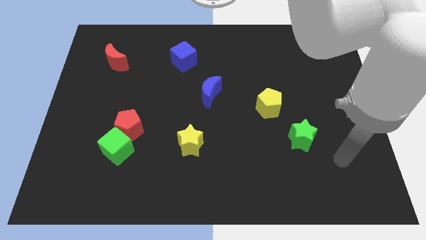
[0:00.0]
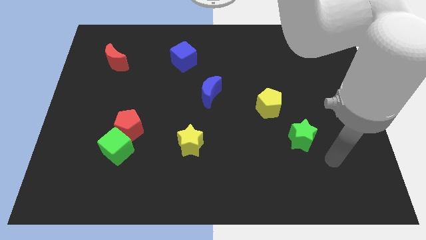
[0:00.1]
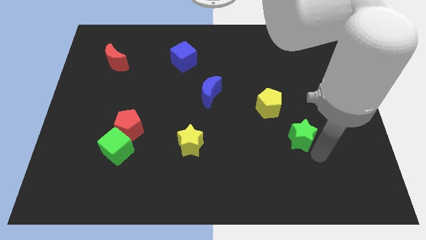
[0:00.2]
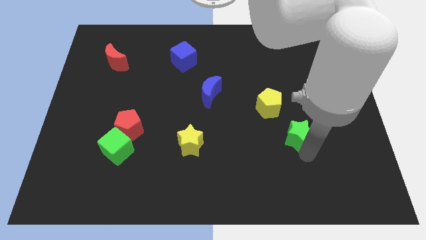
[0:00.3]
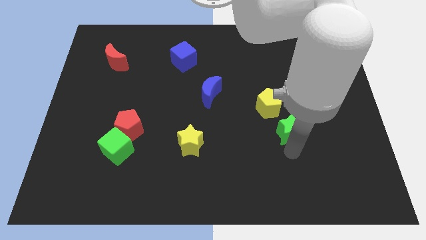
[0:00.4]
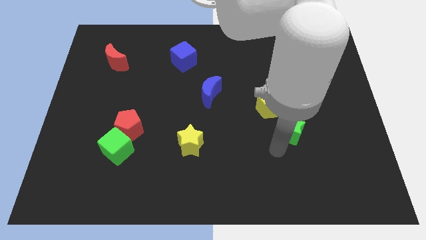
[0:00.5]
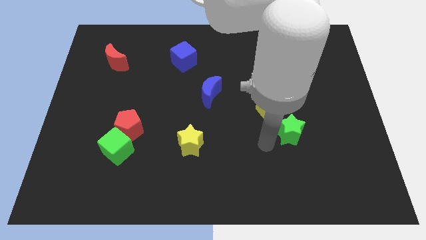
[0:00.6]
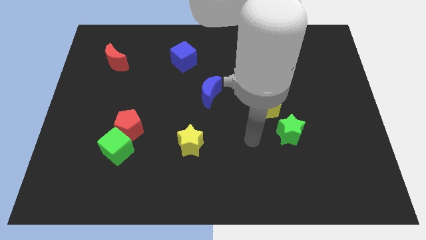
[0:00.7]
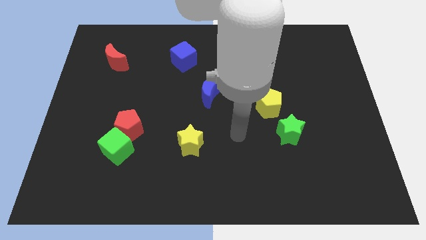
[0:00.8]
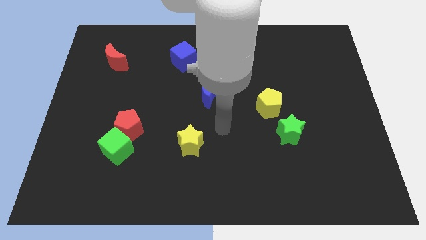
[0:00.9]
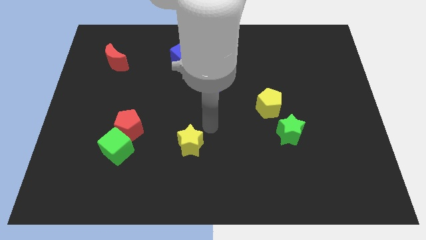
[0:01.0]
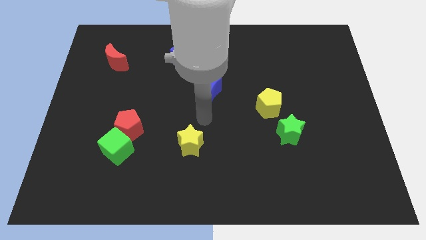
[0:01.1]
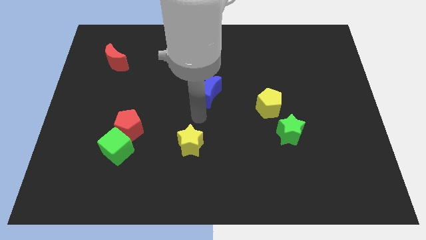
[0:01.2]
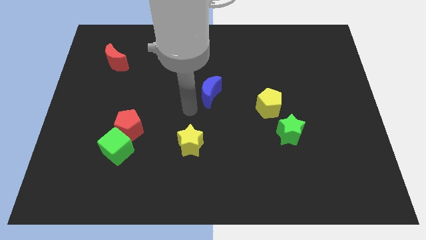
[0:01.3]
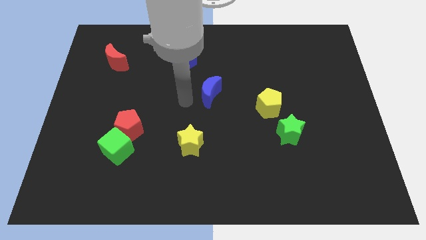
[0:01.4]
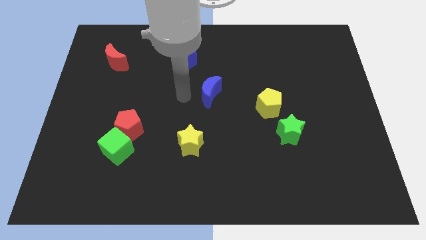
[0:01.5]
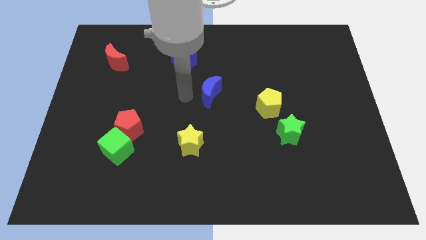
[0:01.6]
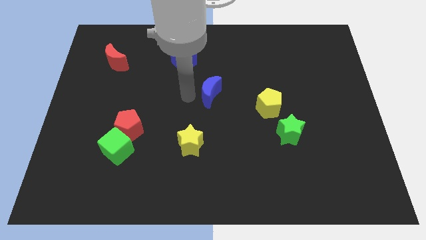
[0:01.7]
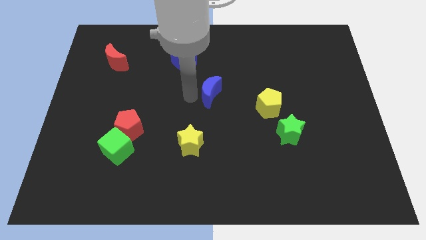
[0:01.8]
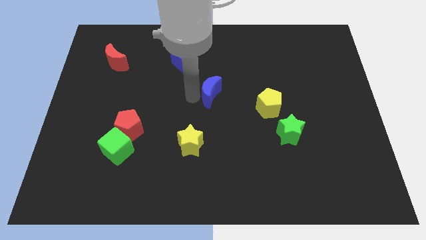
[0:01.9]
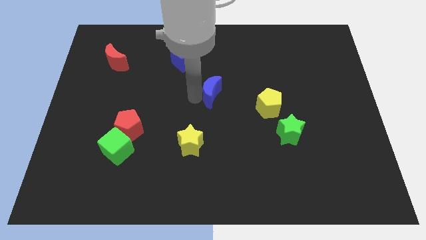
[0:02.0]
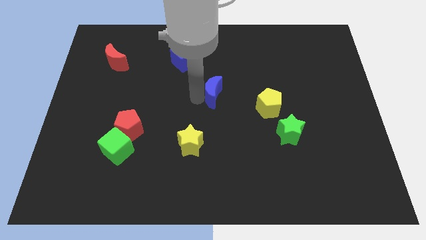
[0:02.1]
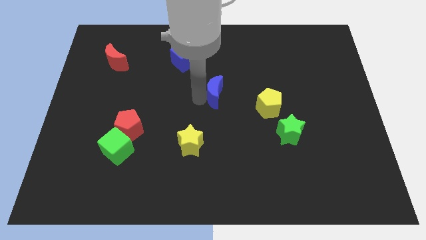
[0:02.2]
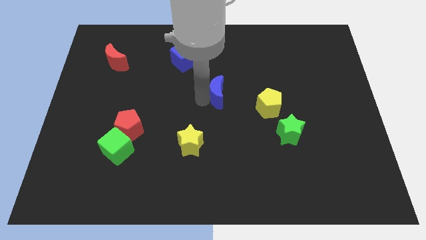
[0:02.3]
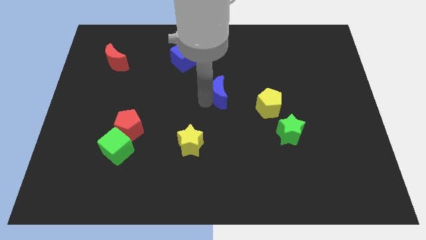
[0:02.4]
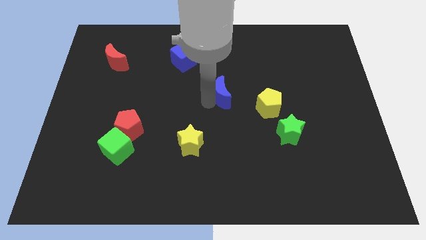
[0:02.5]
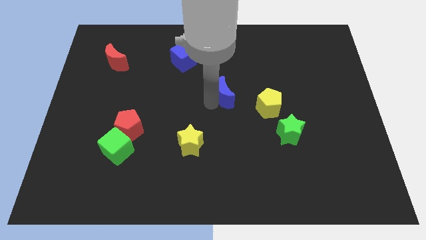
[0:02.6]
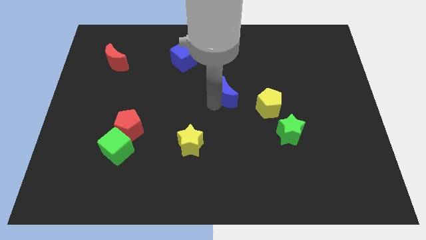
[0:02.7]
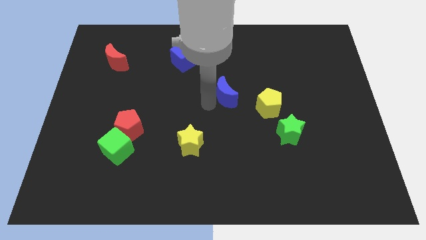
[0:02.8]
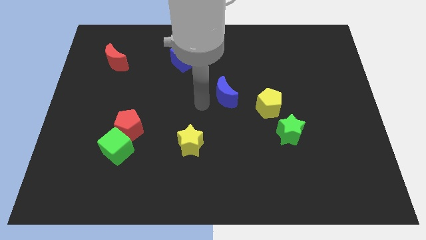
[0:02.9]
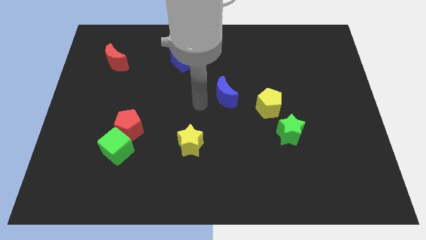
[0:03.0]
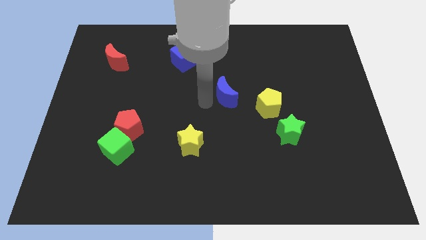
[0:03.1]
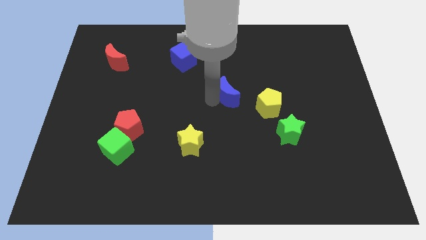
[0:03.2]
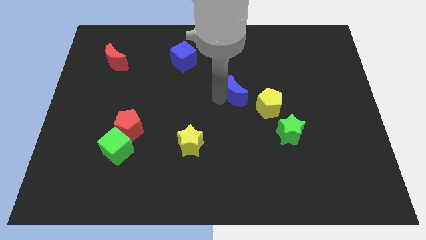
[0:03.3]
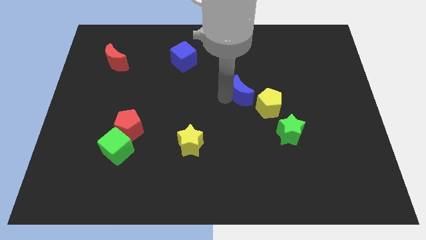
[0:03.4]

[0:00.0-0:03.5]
slightly move the blue moon to the right

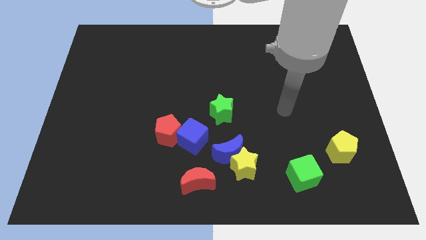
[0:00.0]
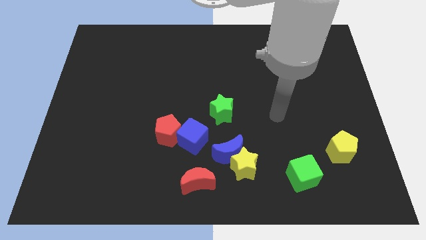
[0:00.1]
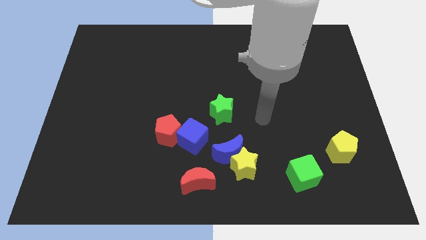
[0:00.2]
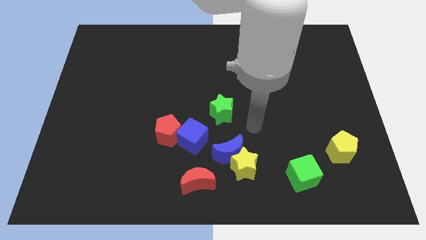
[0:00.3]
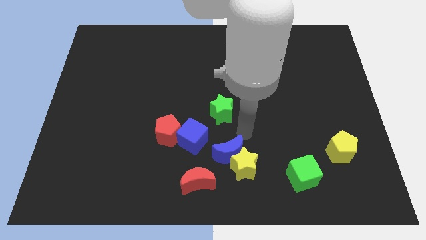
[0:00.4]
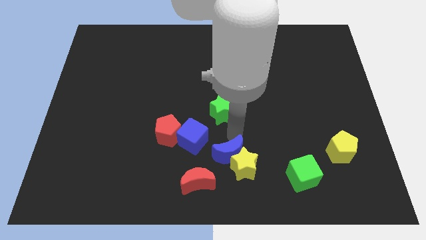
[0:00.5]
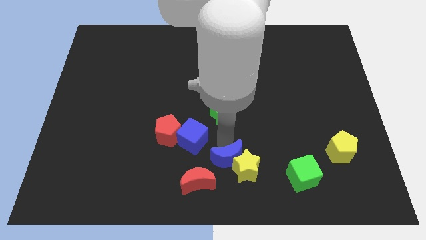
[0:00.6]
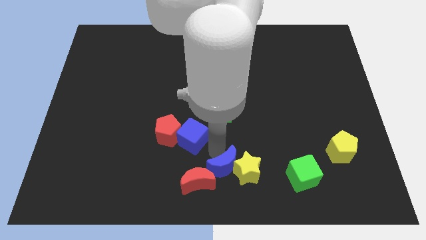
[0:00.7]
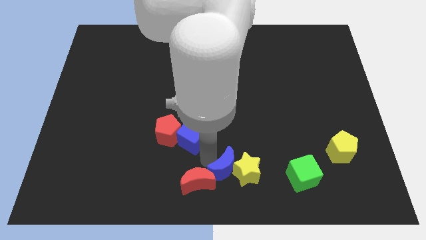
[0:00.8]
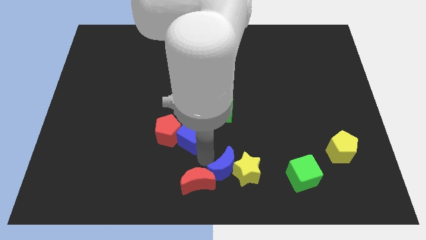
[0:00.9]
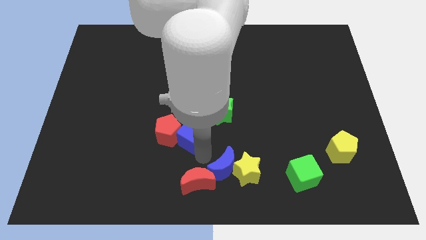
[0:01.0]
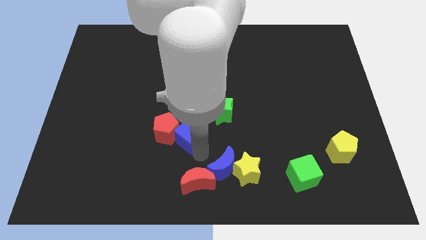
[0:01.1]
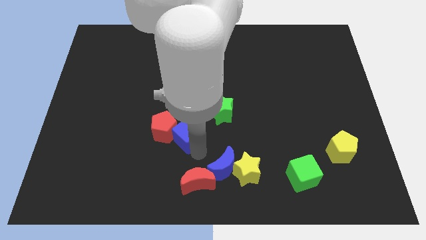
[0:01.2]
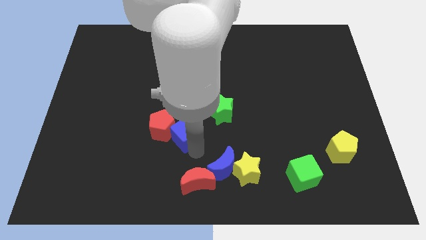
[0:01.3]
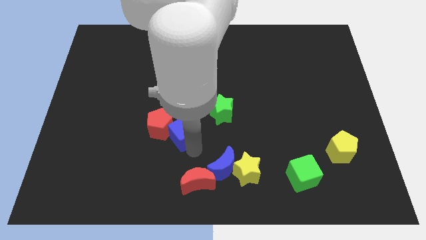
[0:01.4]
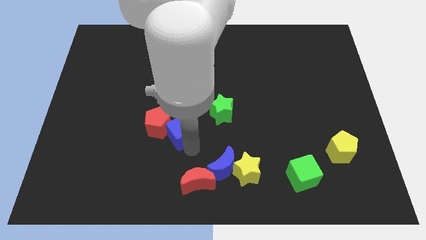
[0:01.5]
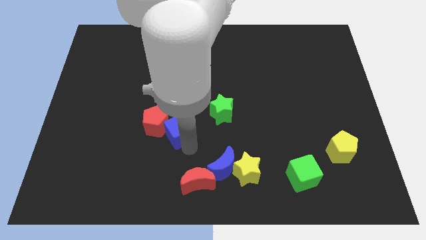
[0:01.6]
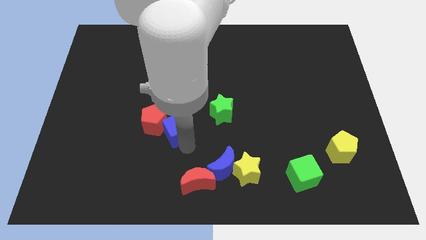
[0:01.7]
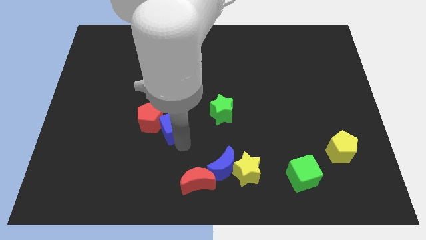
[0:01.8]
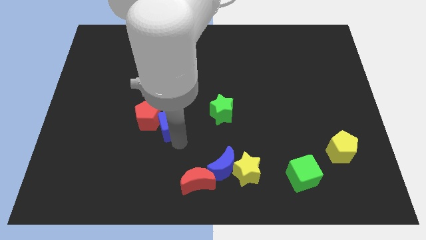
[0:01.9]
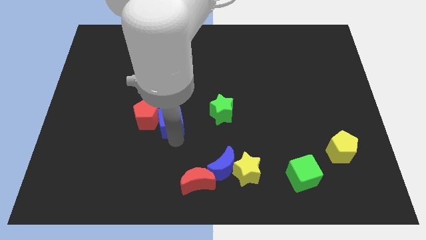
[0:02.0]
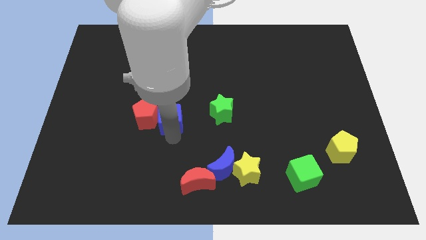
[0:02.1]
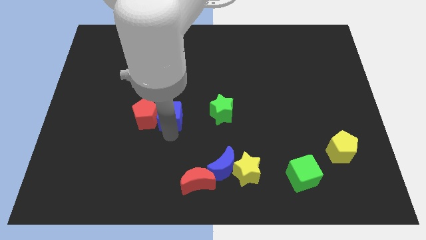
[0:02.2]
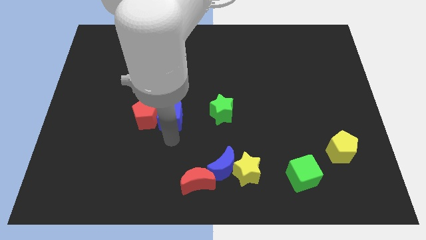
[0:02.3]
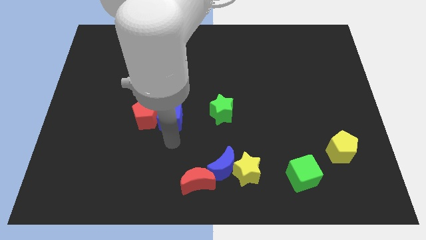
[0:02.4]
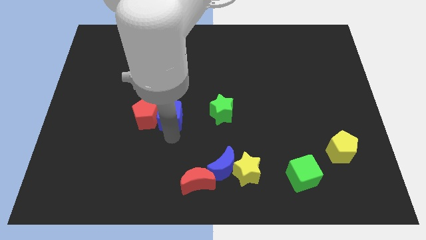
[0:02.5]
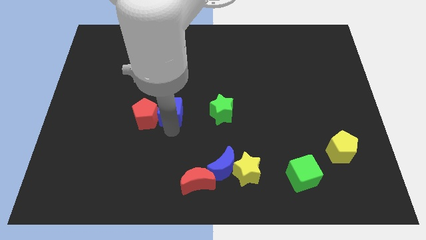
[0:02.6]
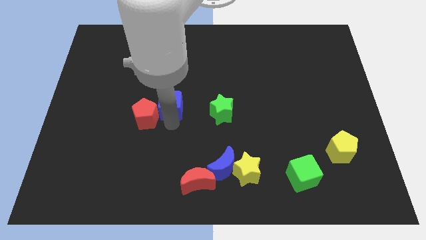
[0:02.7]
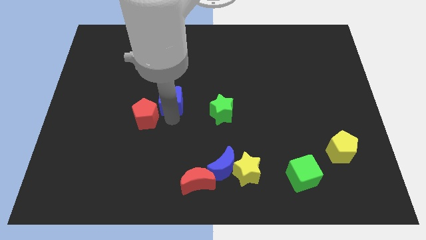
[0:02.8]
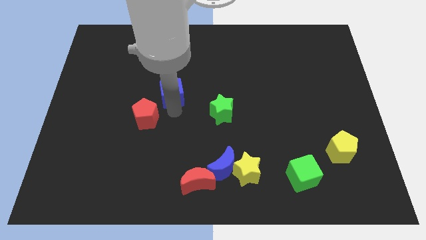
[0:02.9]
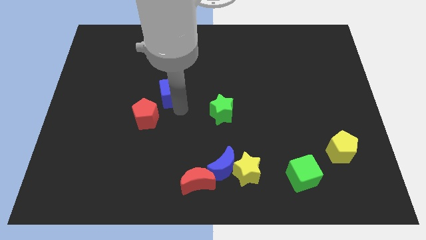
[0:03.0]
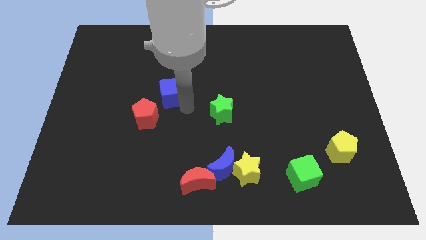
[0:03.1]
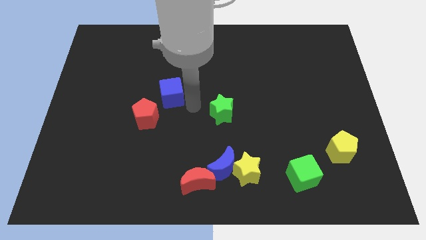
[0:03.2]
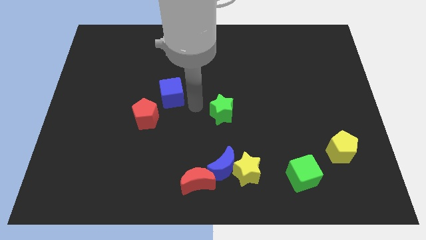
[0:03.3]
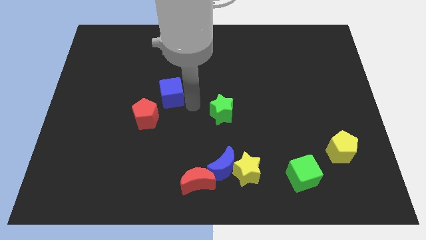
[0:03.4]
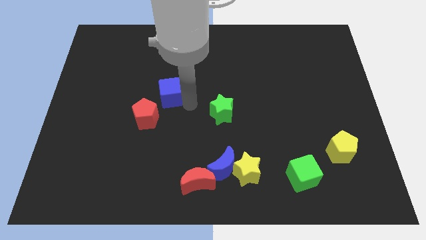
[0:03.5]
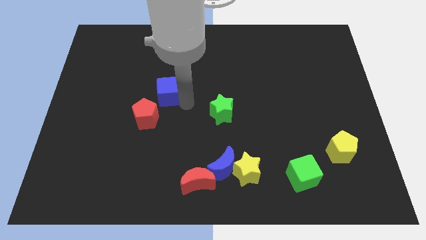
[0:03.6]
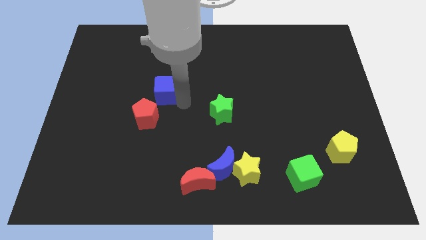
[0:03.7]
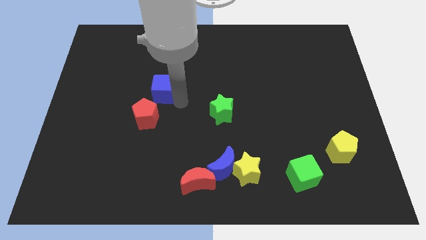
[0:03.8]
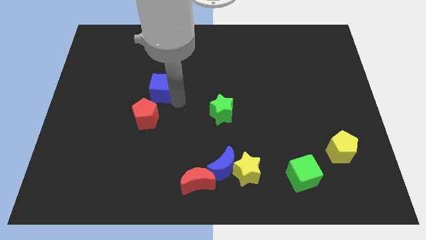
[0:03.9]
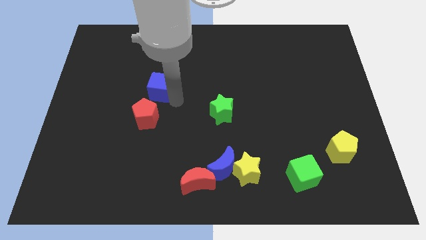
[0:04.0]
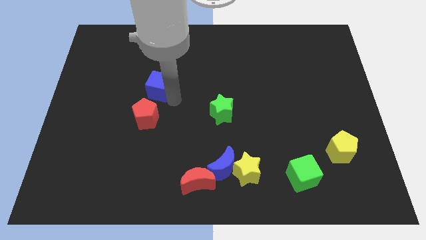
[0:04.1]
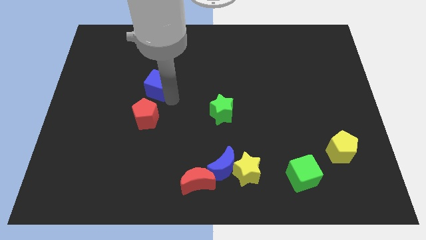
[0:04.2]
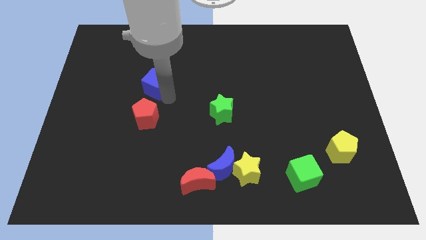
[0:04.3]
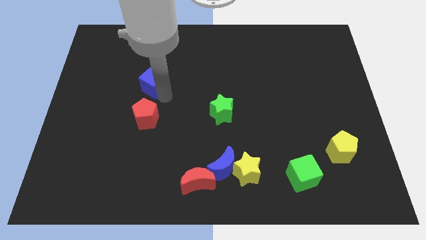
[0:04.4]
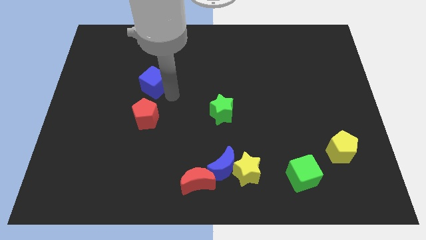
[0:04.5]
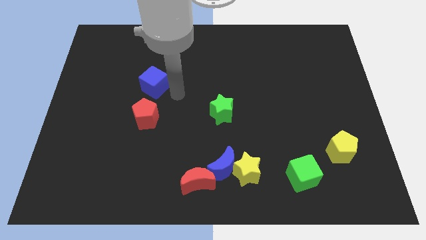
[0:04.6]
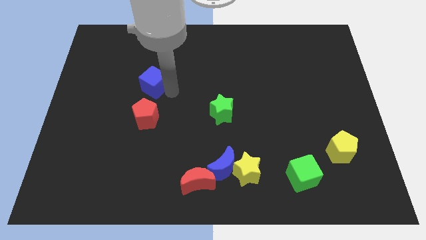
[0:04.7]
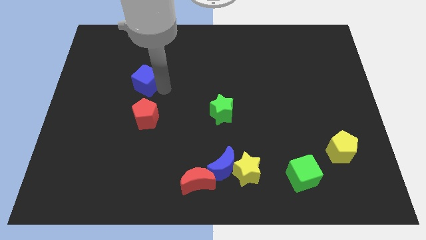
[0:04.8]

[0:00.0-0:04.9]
slide the blue cube up and left
